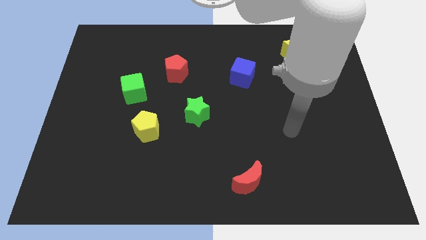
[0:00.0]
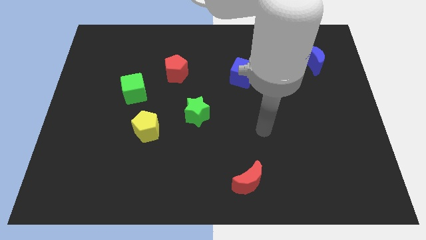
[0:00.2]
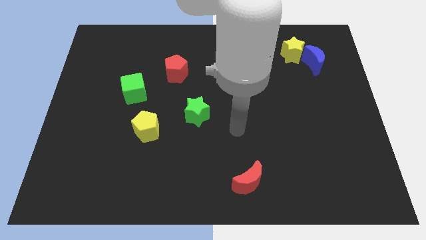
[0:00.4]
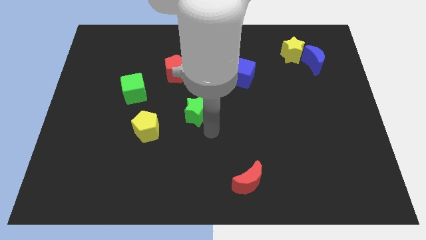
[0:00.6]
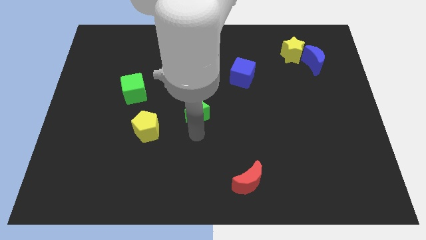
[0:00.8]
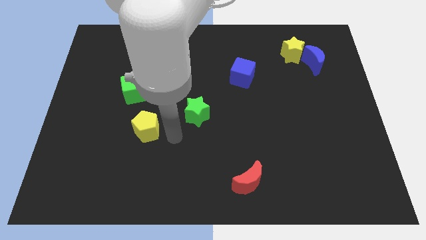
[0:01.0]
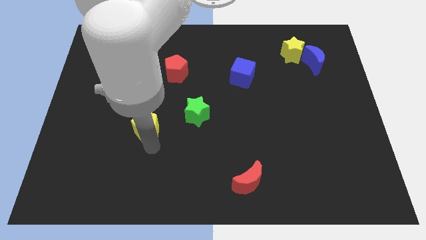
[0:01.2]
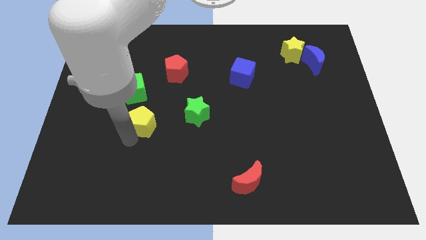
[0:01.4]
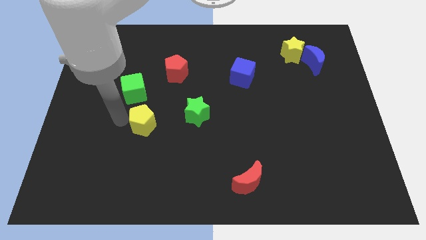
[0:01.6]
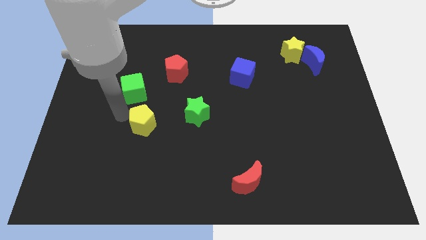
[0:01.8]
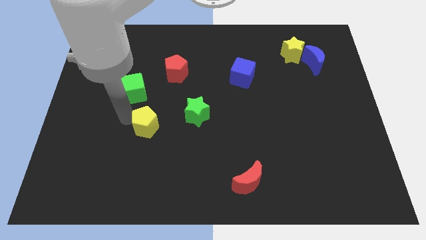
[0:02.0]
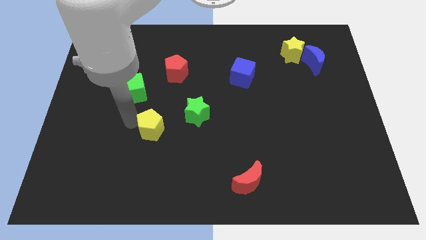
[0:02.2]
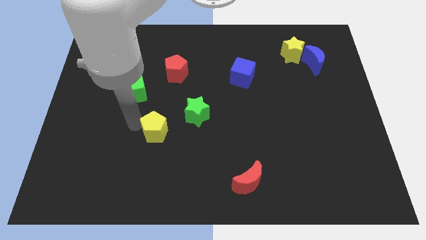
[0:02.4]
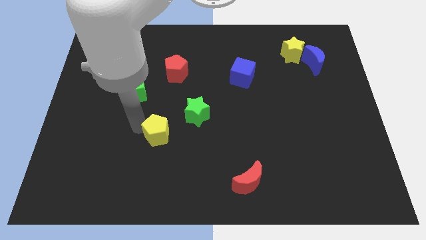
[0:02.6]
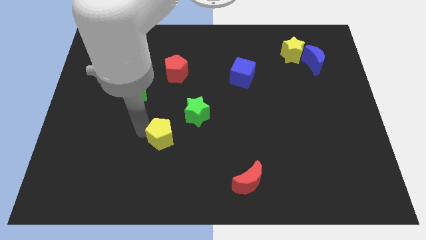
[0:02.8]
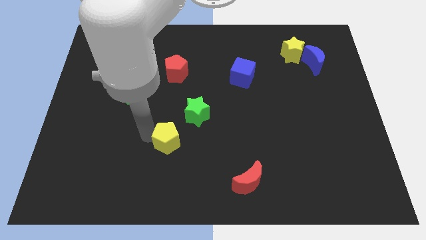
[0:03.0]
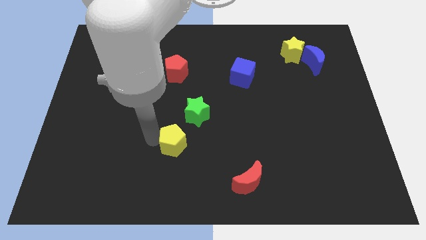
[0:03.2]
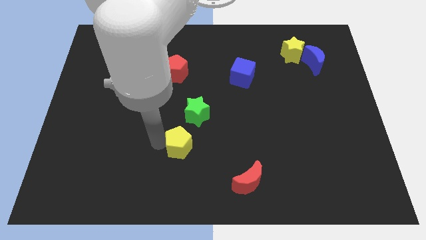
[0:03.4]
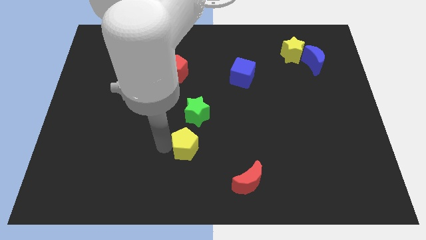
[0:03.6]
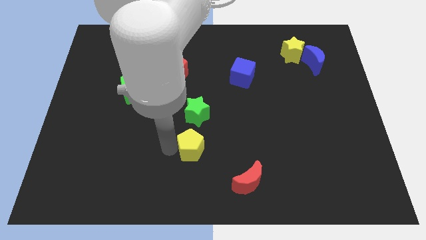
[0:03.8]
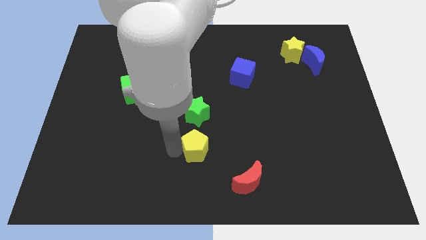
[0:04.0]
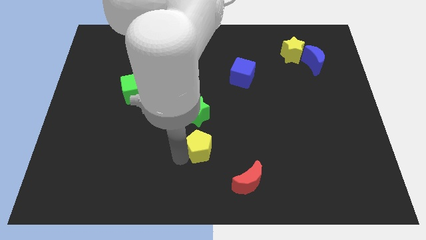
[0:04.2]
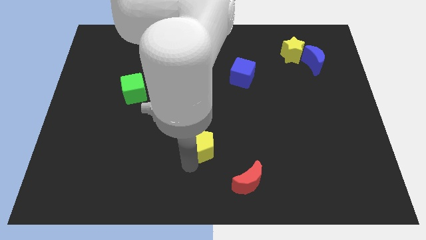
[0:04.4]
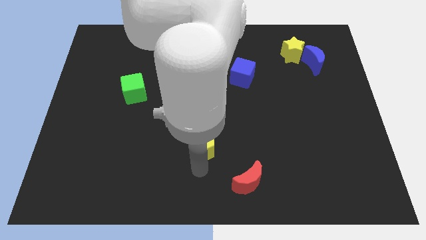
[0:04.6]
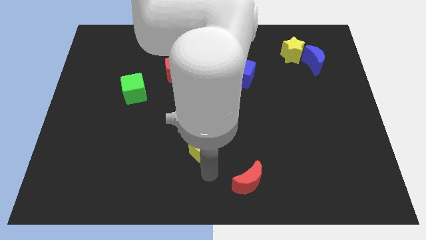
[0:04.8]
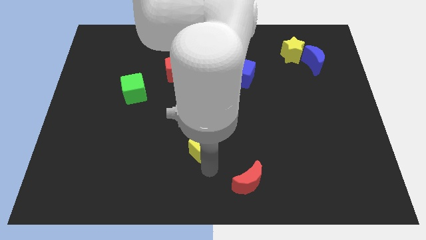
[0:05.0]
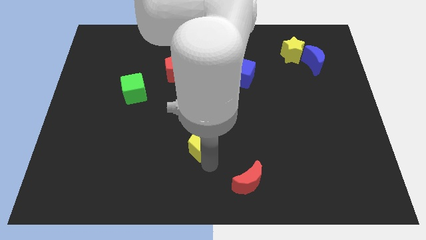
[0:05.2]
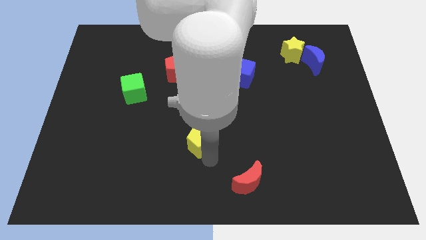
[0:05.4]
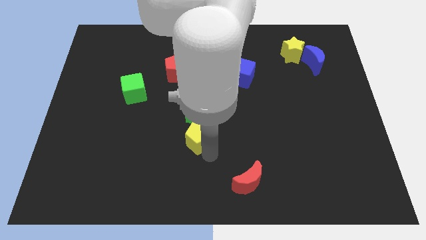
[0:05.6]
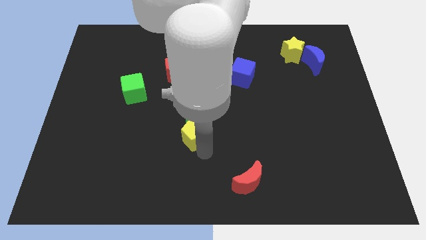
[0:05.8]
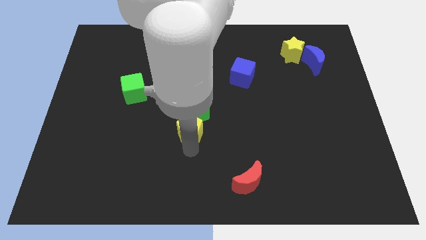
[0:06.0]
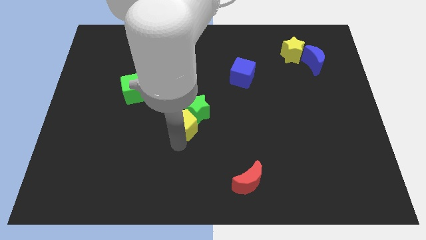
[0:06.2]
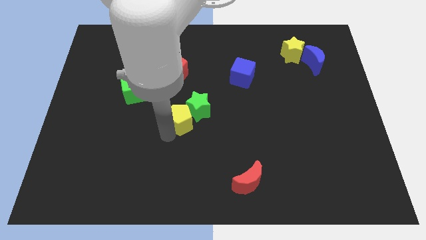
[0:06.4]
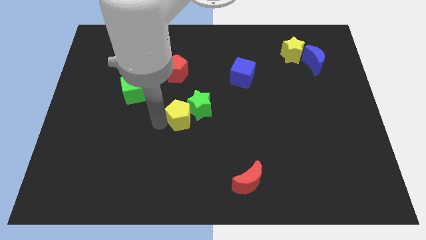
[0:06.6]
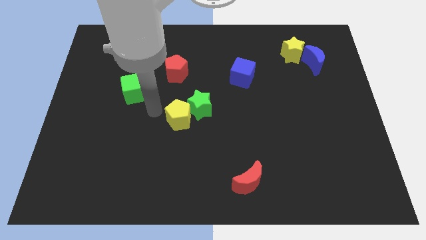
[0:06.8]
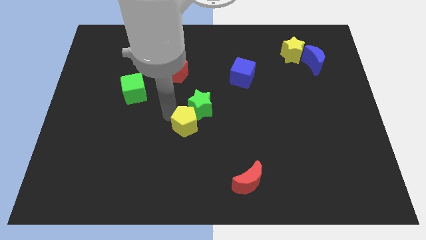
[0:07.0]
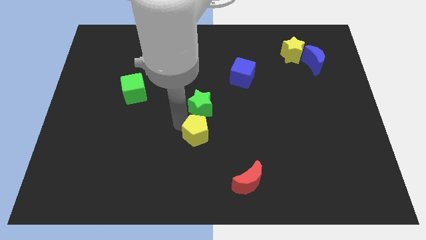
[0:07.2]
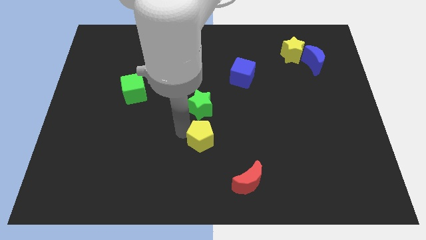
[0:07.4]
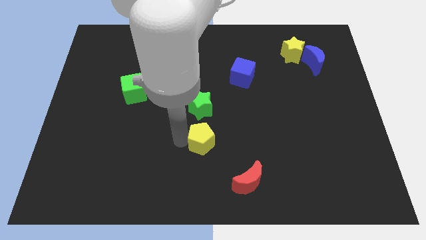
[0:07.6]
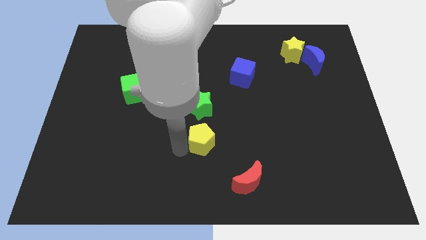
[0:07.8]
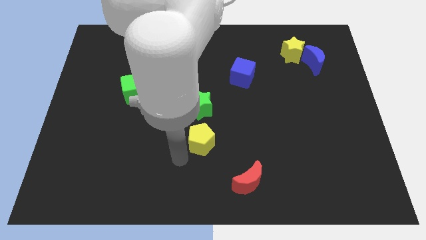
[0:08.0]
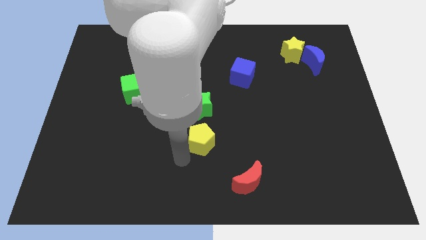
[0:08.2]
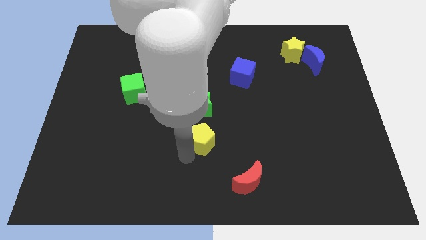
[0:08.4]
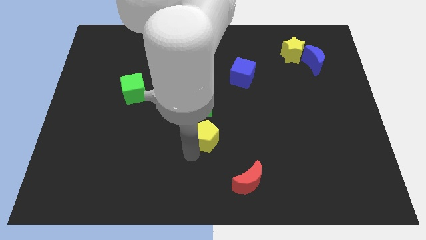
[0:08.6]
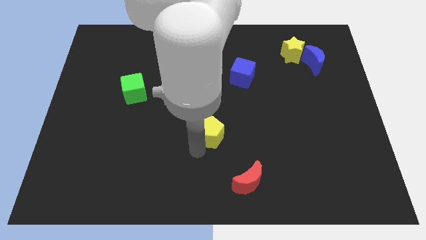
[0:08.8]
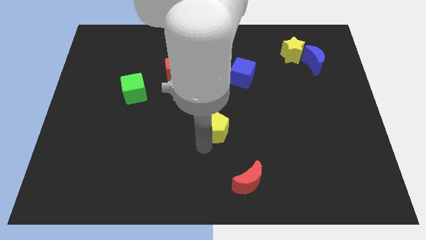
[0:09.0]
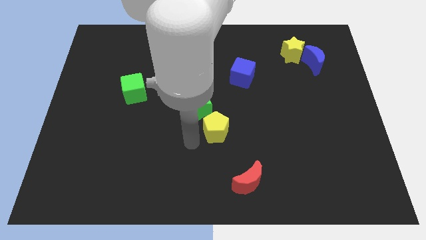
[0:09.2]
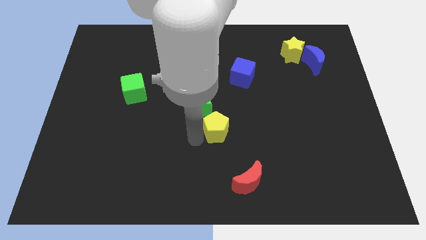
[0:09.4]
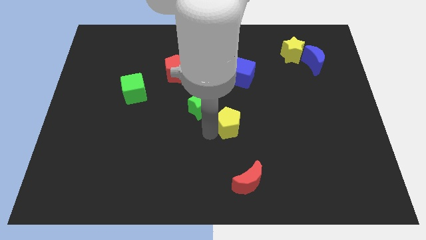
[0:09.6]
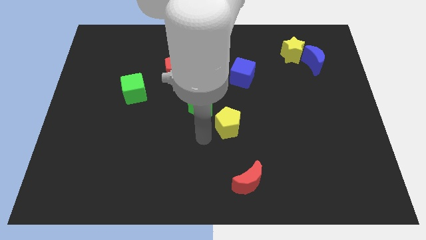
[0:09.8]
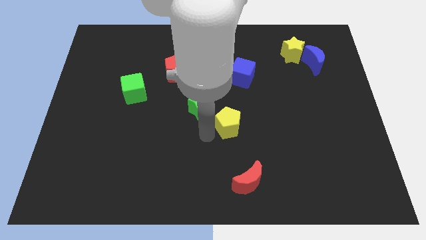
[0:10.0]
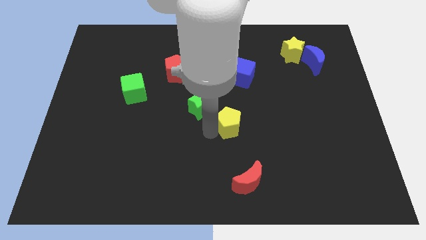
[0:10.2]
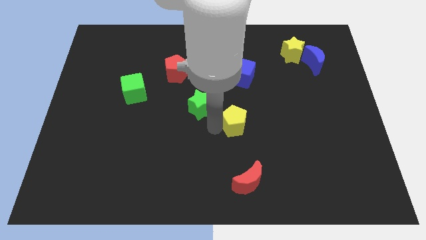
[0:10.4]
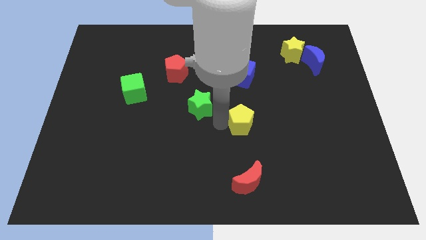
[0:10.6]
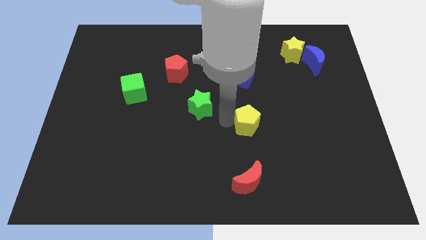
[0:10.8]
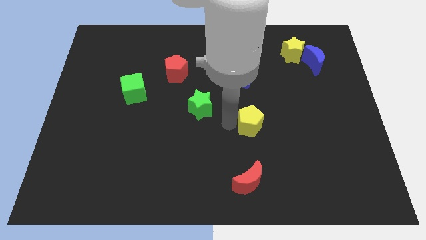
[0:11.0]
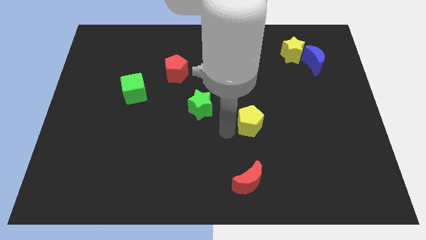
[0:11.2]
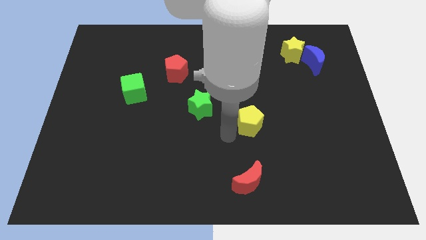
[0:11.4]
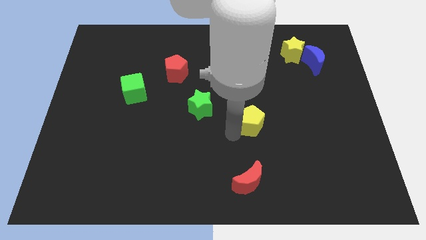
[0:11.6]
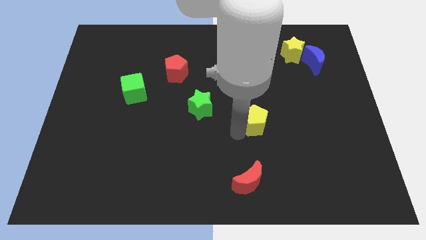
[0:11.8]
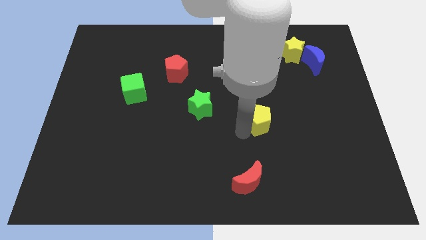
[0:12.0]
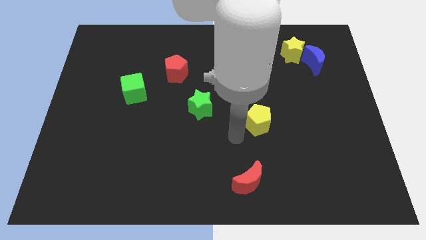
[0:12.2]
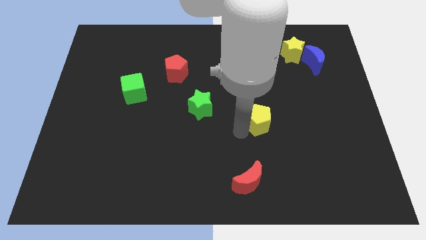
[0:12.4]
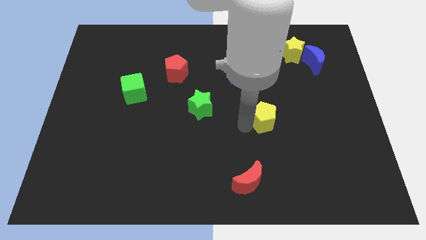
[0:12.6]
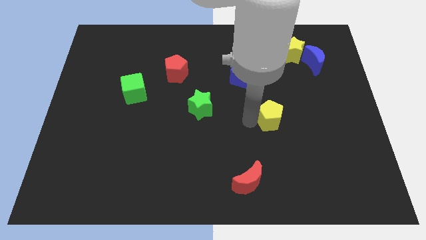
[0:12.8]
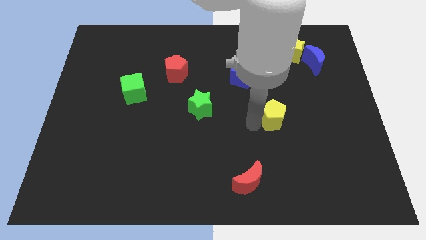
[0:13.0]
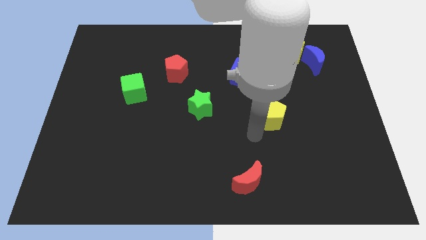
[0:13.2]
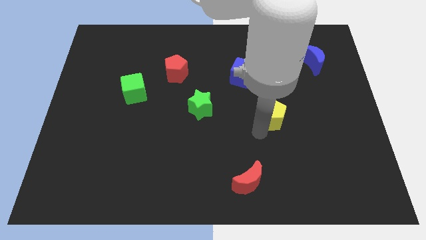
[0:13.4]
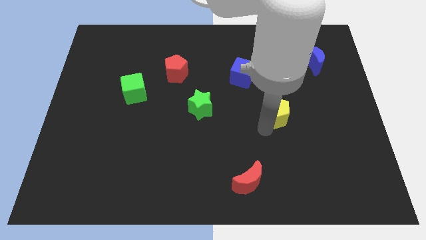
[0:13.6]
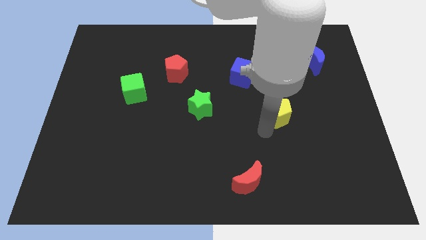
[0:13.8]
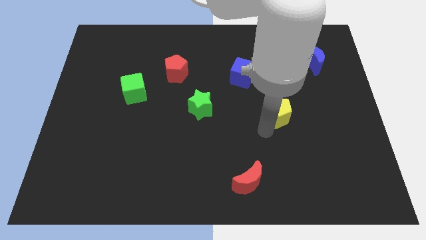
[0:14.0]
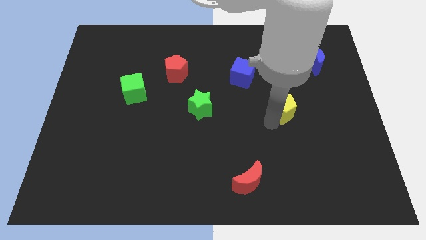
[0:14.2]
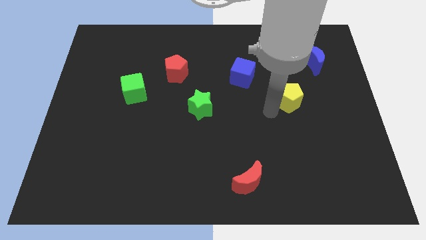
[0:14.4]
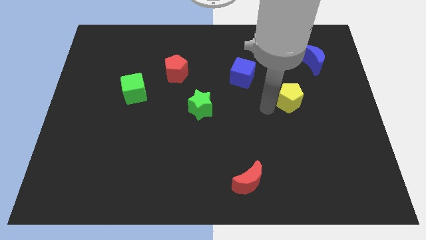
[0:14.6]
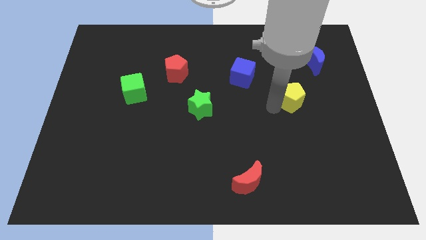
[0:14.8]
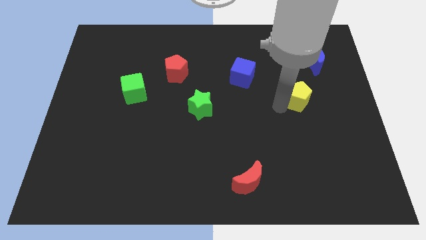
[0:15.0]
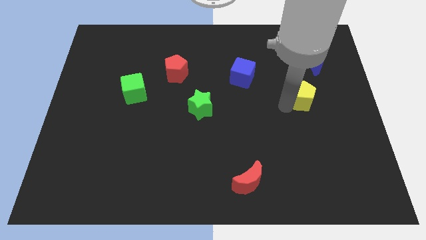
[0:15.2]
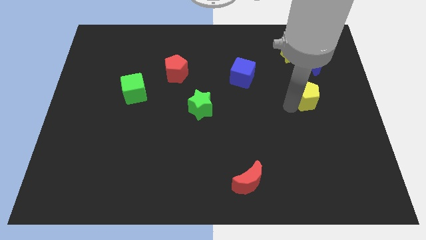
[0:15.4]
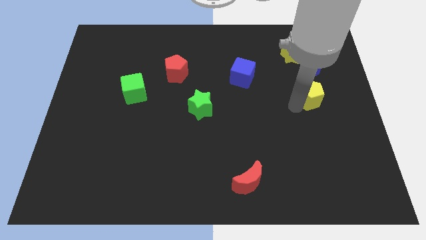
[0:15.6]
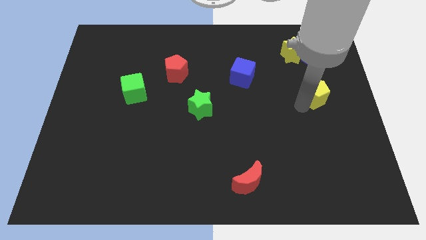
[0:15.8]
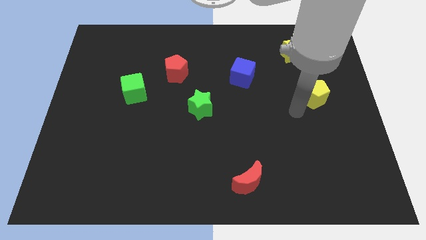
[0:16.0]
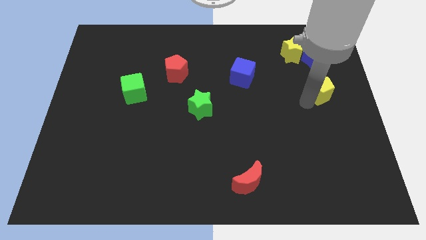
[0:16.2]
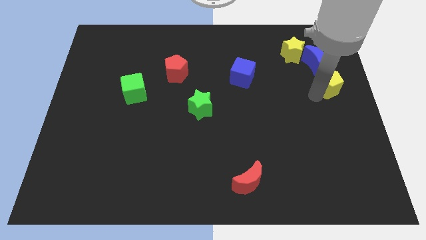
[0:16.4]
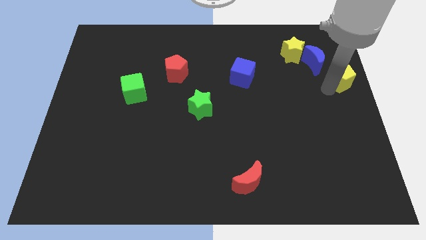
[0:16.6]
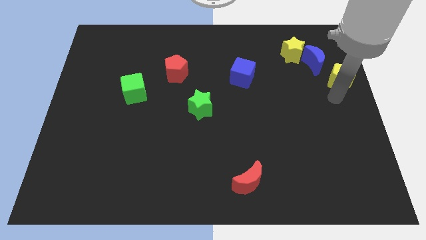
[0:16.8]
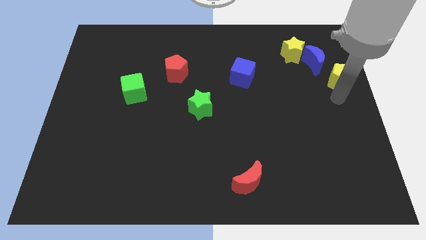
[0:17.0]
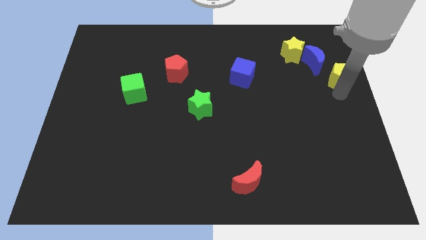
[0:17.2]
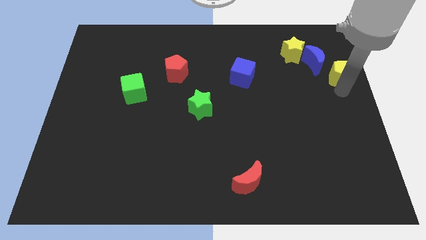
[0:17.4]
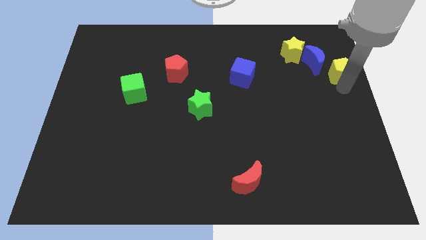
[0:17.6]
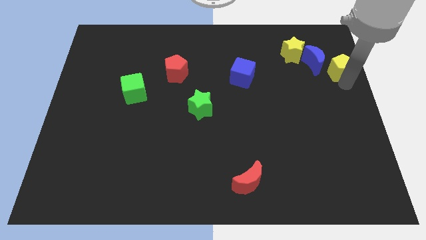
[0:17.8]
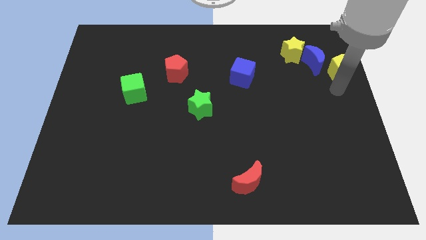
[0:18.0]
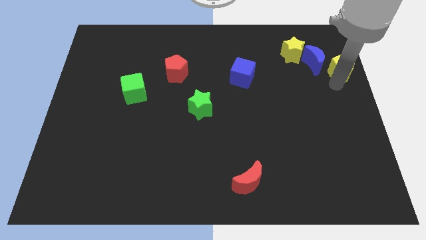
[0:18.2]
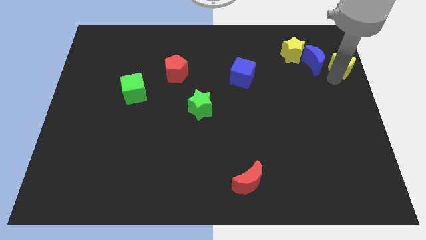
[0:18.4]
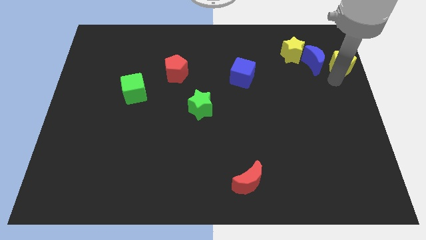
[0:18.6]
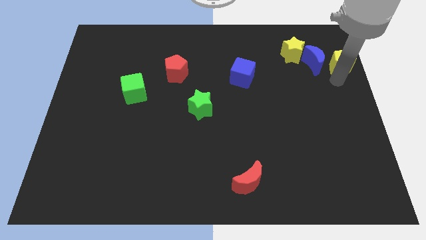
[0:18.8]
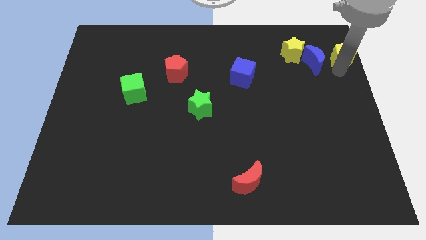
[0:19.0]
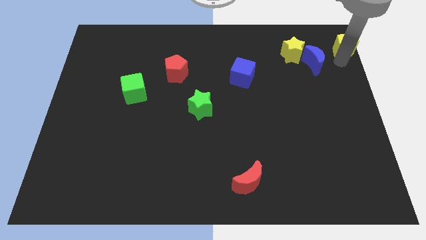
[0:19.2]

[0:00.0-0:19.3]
put the yellow pentagon to the upper right corner
